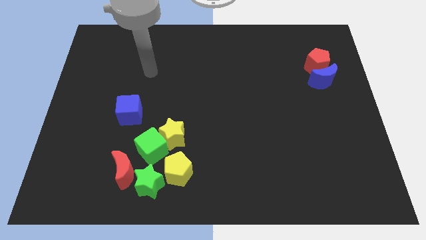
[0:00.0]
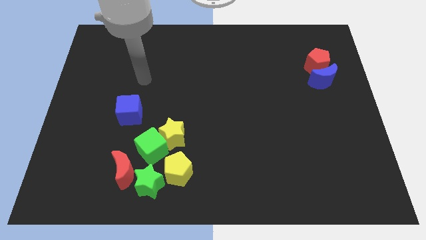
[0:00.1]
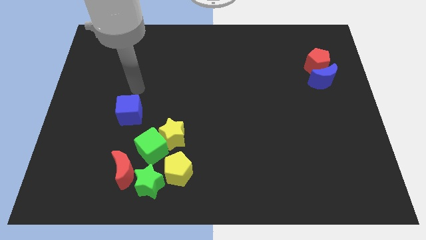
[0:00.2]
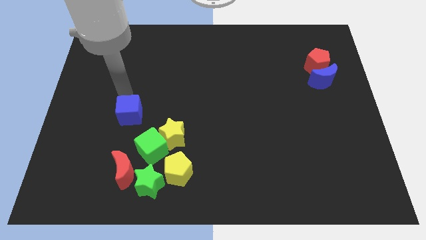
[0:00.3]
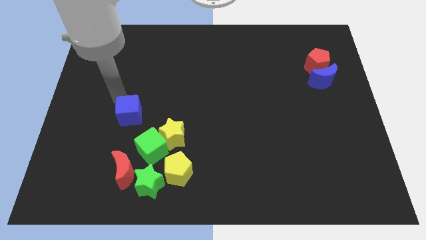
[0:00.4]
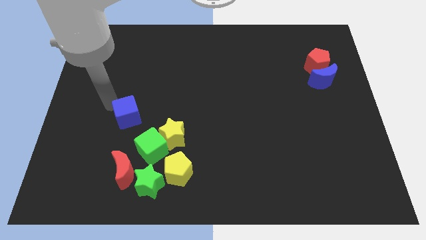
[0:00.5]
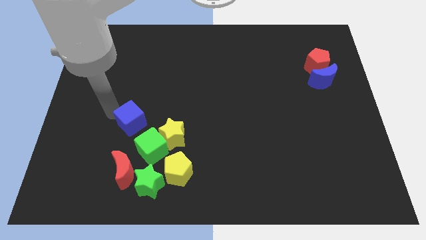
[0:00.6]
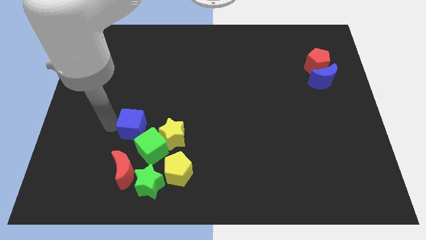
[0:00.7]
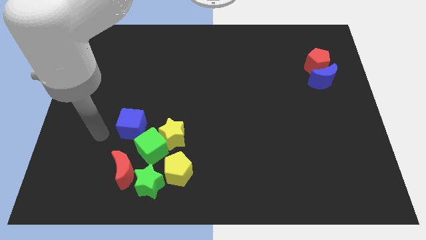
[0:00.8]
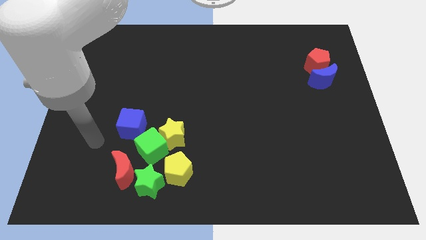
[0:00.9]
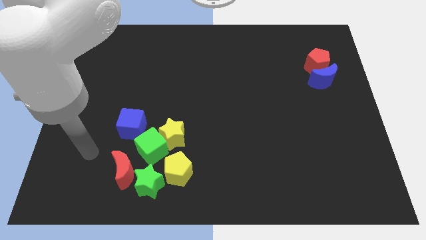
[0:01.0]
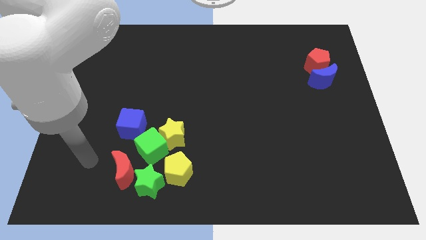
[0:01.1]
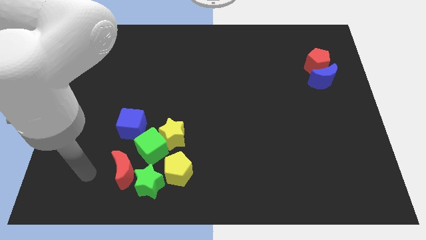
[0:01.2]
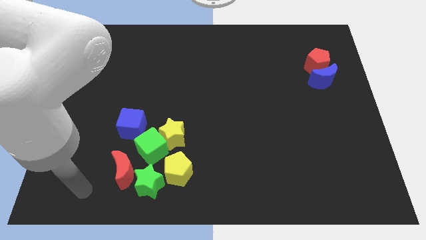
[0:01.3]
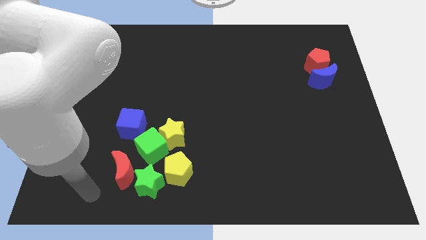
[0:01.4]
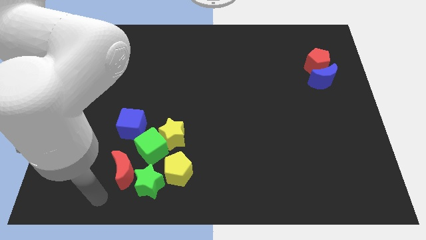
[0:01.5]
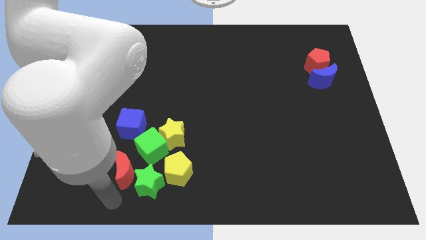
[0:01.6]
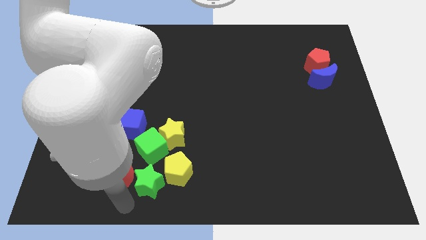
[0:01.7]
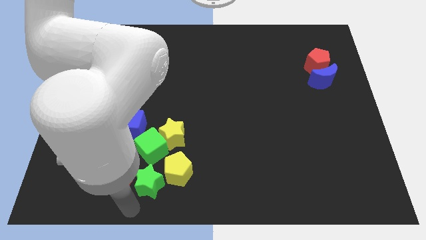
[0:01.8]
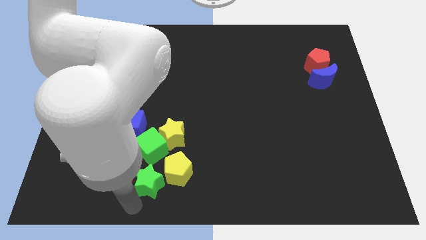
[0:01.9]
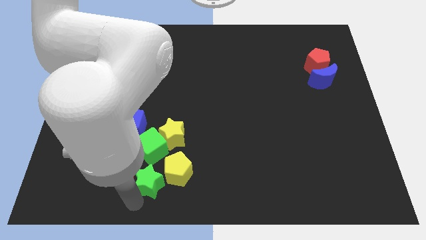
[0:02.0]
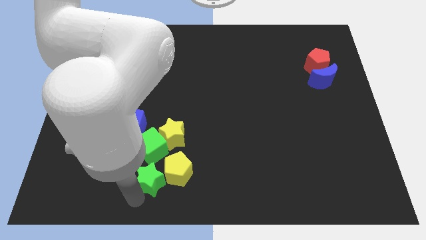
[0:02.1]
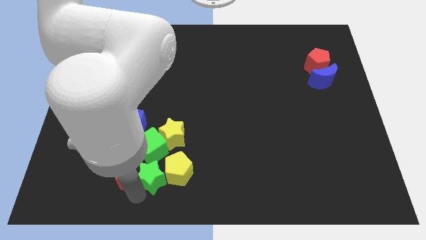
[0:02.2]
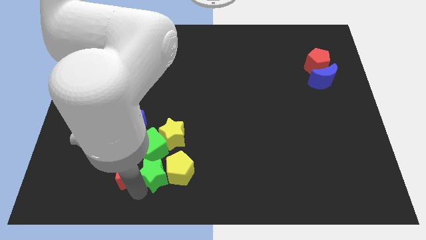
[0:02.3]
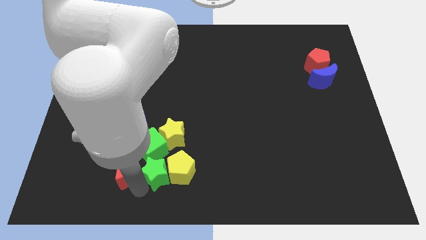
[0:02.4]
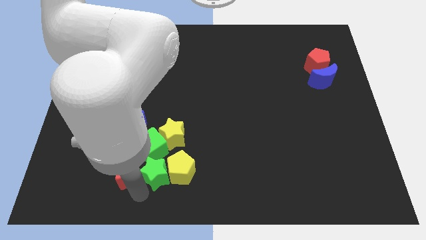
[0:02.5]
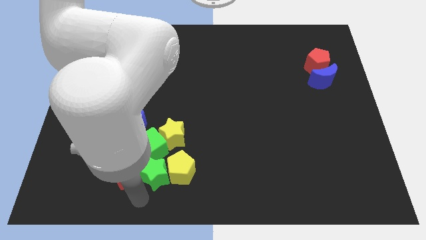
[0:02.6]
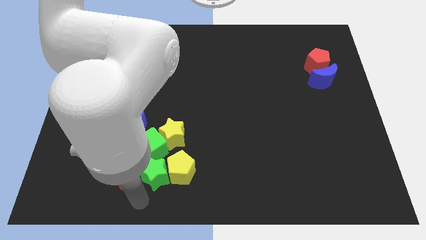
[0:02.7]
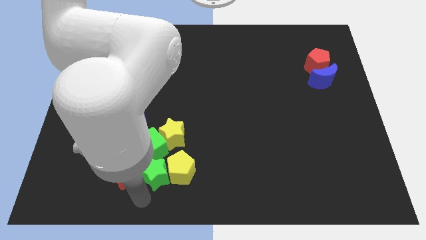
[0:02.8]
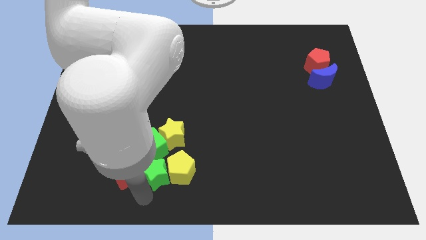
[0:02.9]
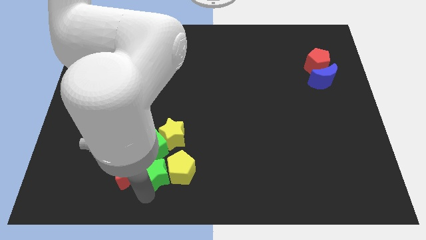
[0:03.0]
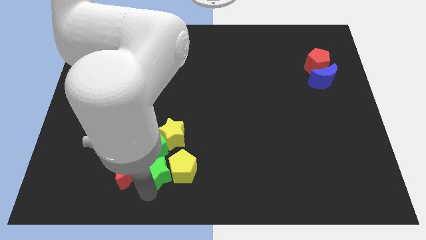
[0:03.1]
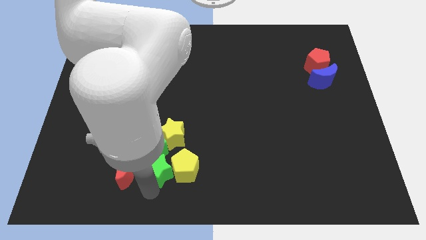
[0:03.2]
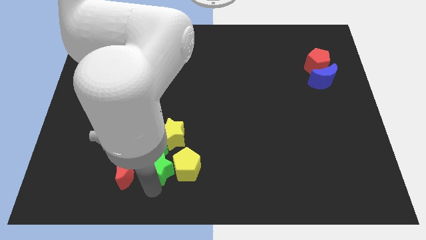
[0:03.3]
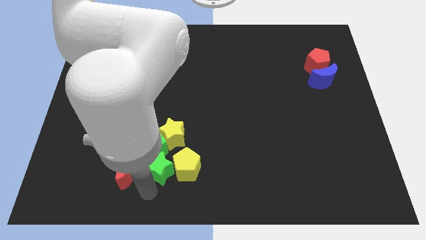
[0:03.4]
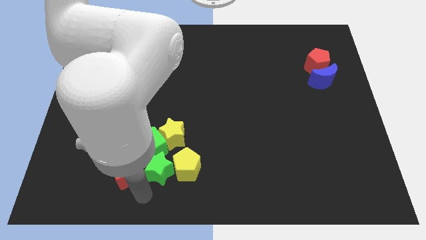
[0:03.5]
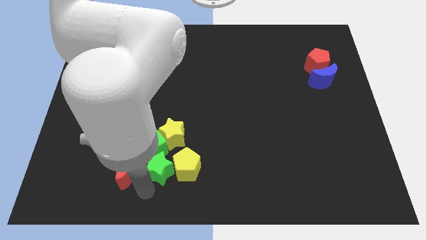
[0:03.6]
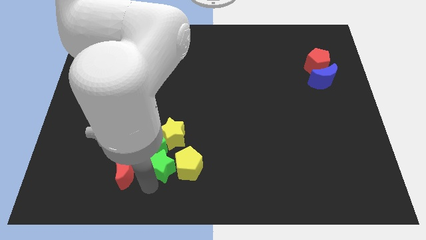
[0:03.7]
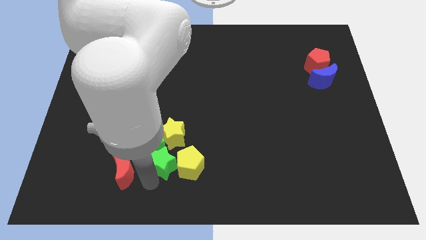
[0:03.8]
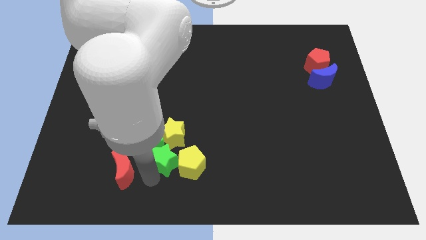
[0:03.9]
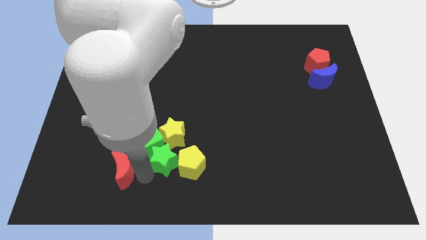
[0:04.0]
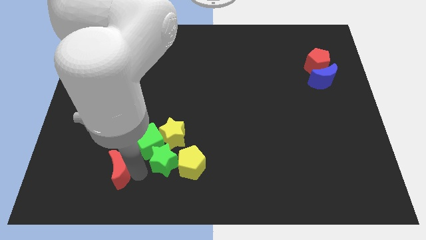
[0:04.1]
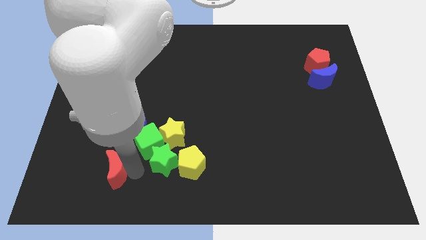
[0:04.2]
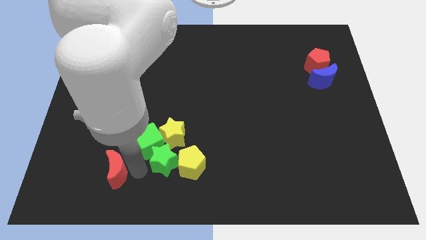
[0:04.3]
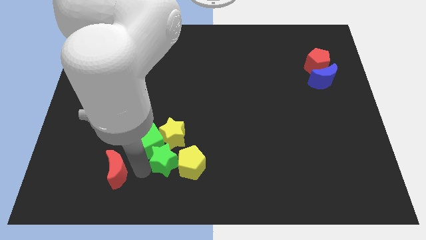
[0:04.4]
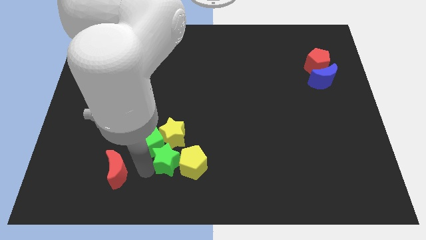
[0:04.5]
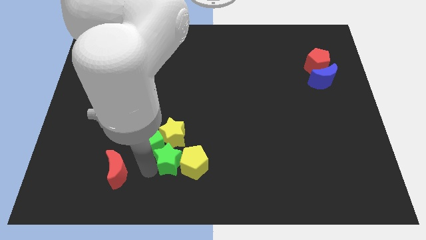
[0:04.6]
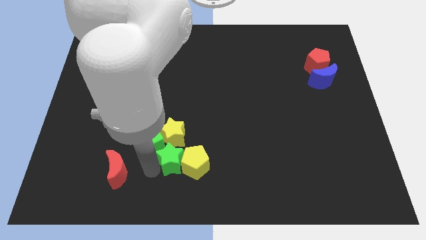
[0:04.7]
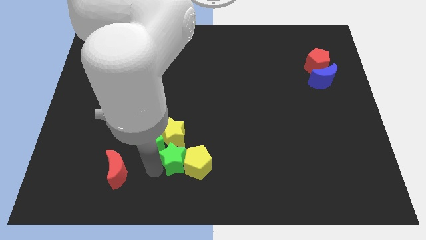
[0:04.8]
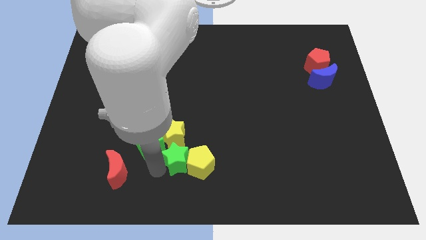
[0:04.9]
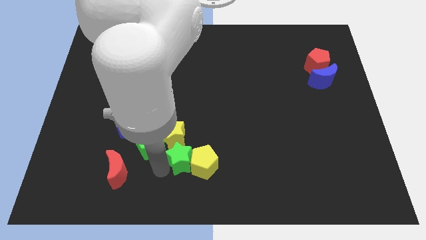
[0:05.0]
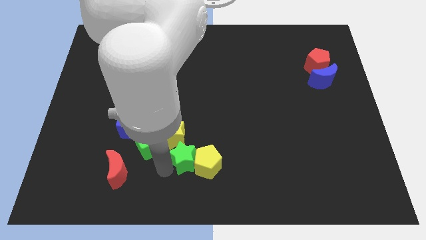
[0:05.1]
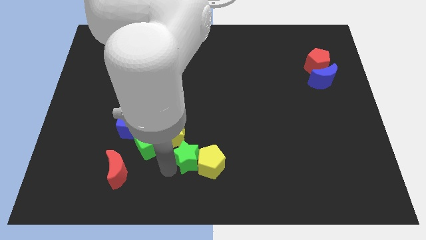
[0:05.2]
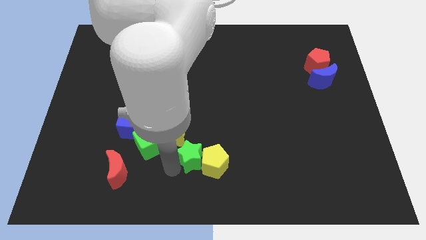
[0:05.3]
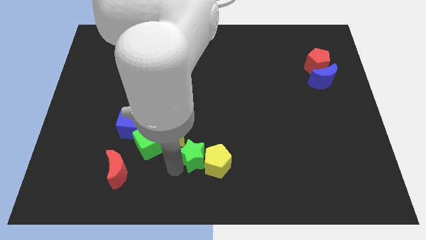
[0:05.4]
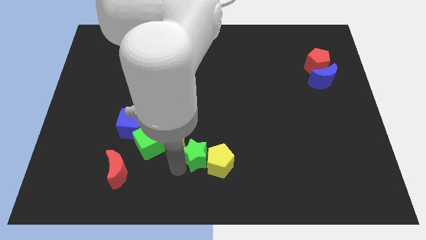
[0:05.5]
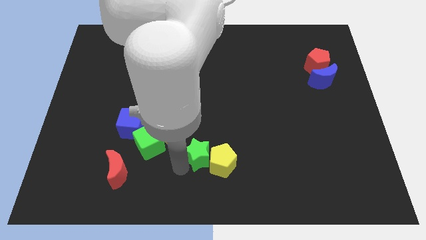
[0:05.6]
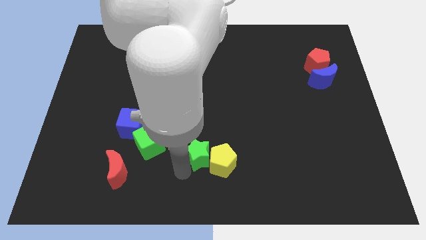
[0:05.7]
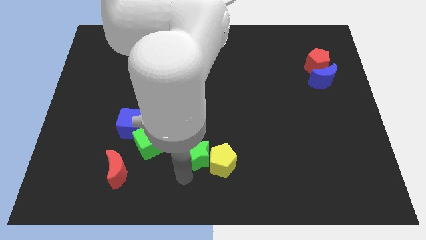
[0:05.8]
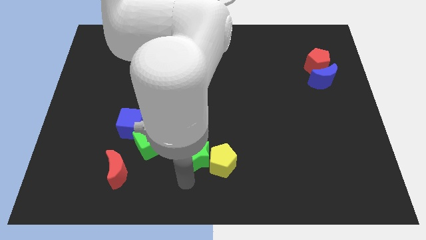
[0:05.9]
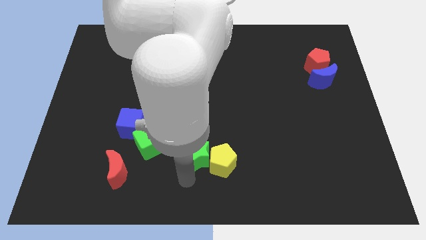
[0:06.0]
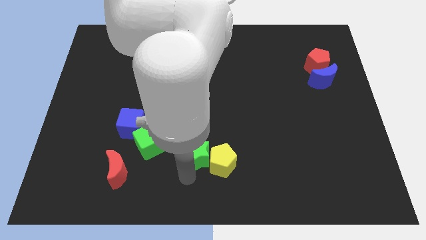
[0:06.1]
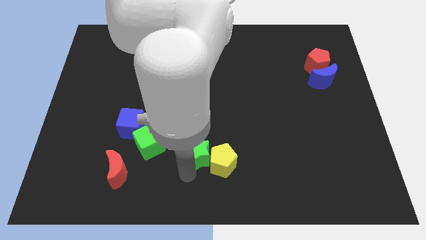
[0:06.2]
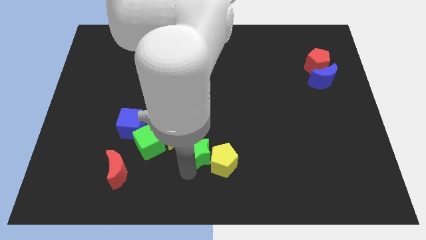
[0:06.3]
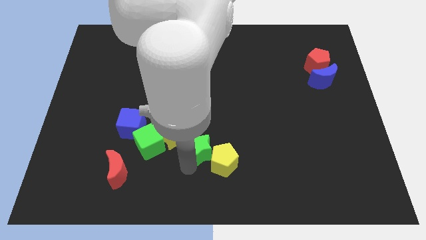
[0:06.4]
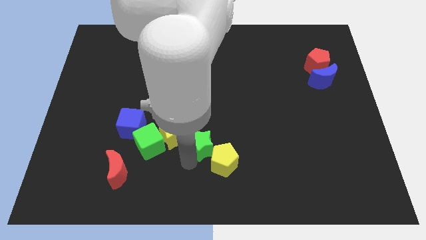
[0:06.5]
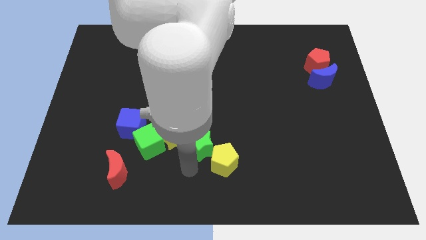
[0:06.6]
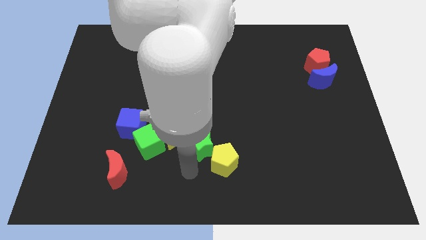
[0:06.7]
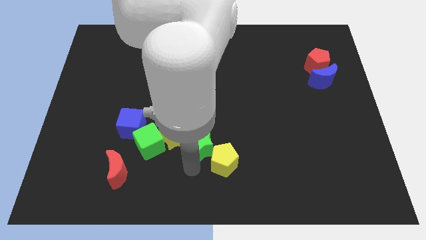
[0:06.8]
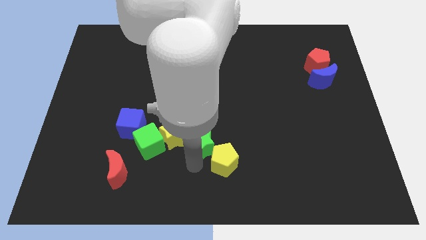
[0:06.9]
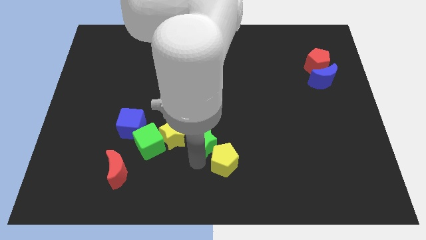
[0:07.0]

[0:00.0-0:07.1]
put the green star to the middle

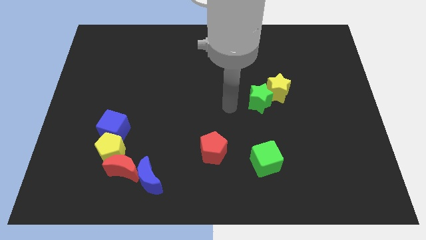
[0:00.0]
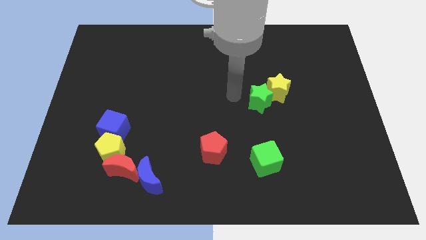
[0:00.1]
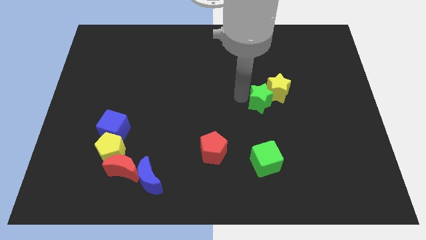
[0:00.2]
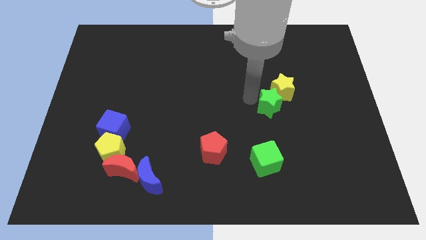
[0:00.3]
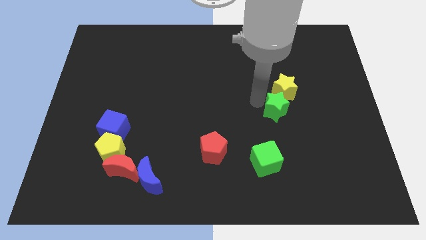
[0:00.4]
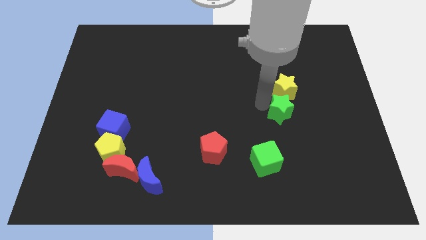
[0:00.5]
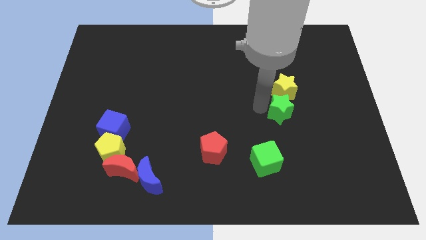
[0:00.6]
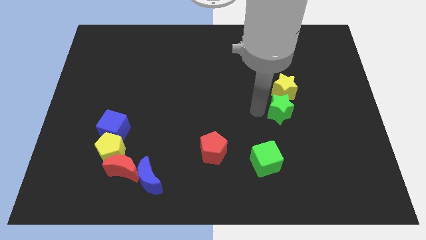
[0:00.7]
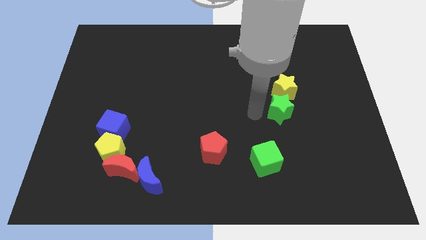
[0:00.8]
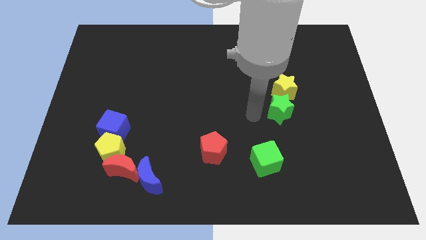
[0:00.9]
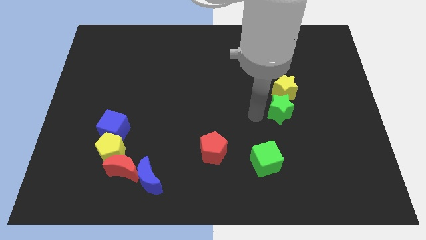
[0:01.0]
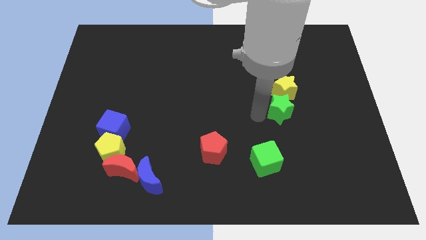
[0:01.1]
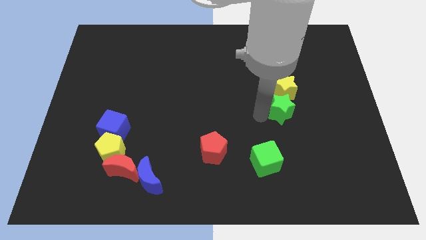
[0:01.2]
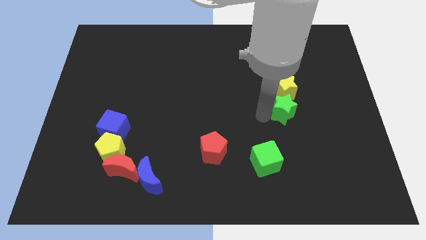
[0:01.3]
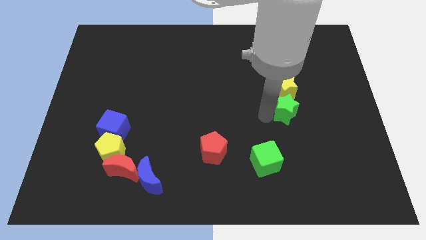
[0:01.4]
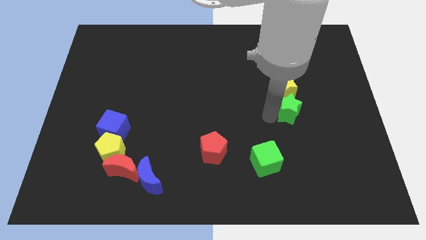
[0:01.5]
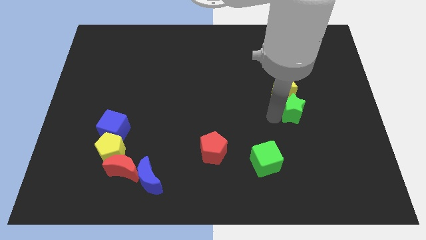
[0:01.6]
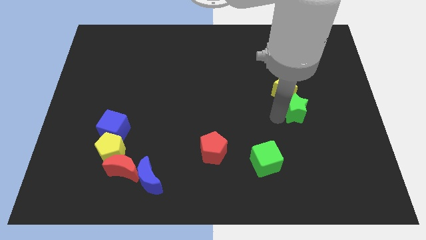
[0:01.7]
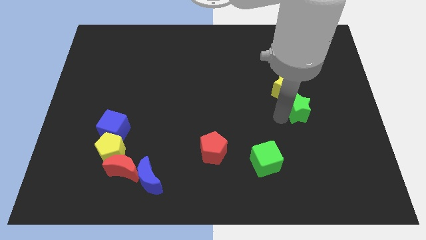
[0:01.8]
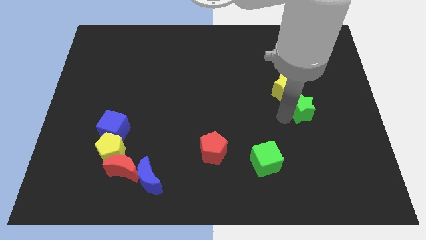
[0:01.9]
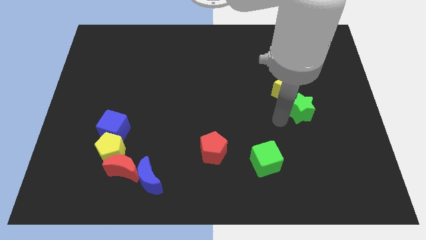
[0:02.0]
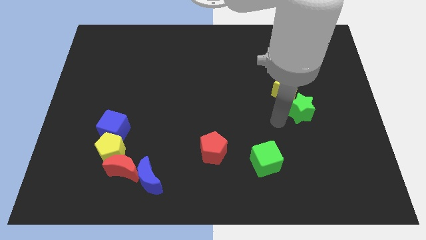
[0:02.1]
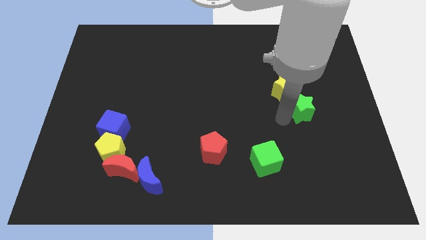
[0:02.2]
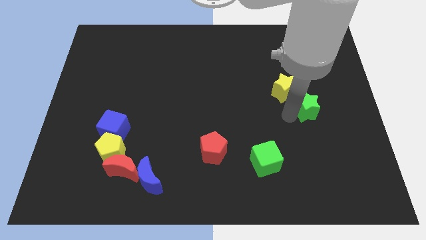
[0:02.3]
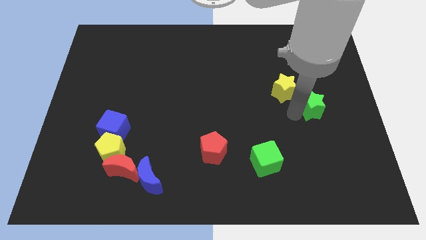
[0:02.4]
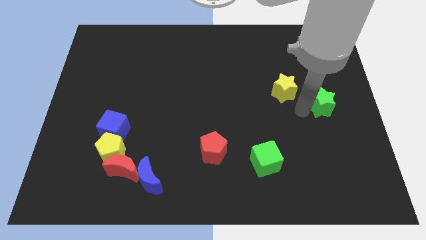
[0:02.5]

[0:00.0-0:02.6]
slide the green star to the right side of the board
